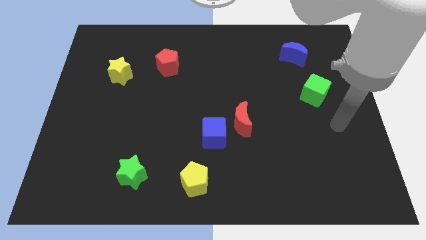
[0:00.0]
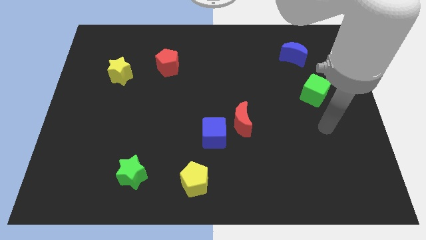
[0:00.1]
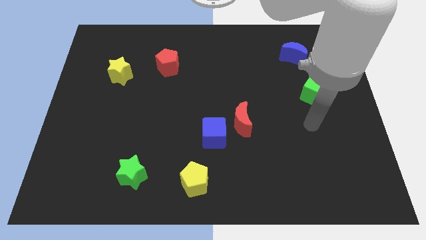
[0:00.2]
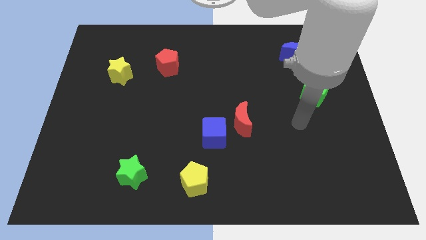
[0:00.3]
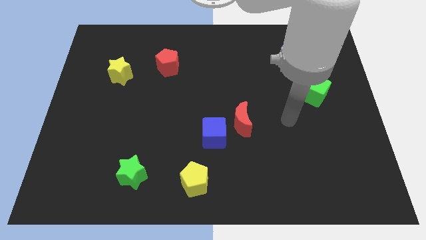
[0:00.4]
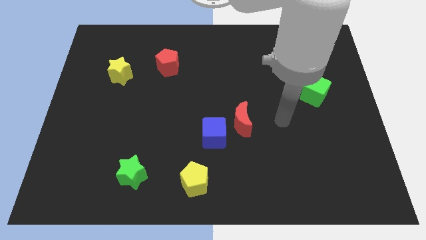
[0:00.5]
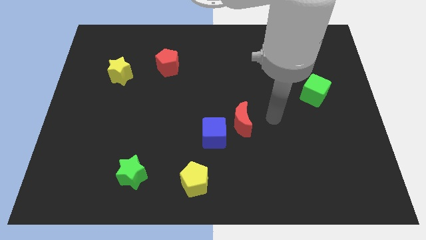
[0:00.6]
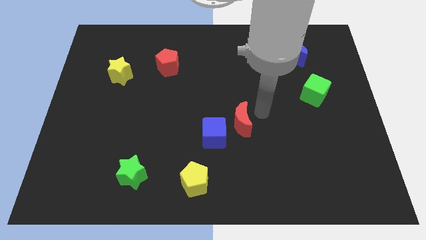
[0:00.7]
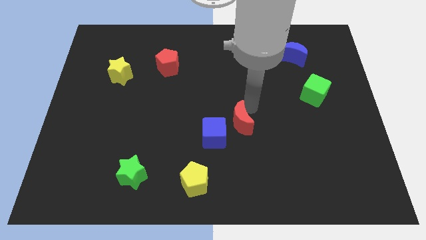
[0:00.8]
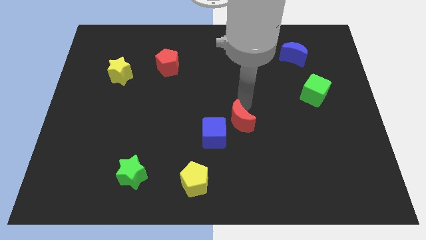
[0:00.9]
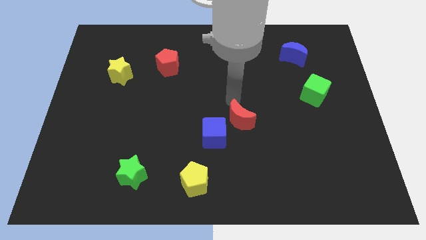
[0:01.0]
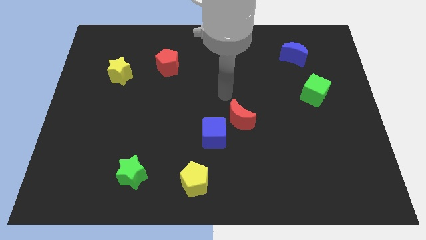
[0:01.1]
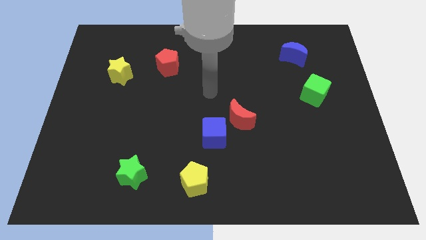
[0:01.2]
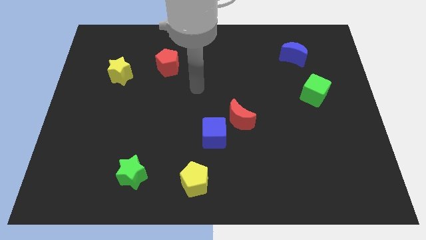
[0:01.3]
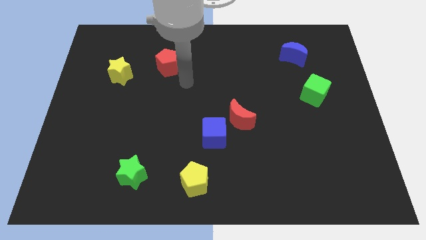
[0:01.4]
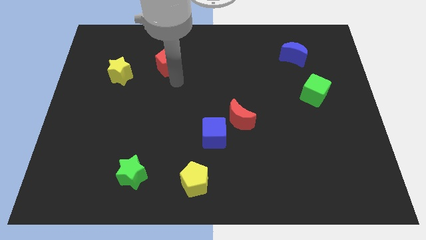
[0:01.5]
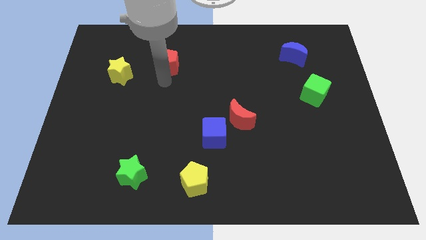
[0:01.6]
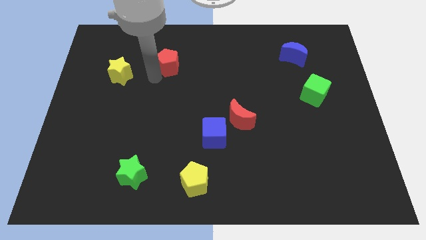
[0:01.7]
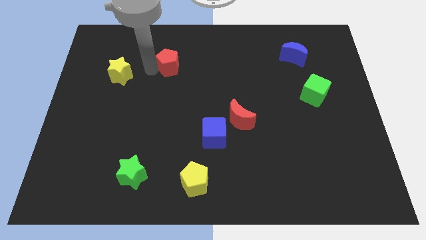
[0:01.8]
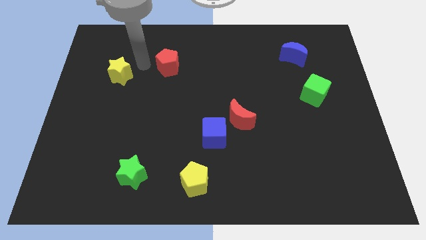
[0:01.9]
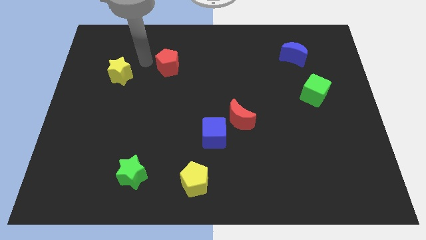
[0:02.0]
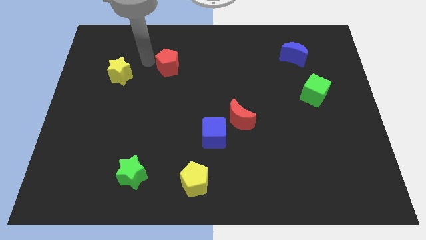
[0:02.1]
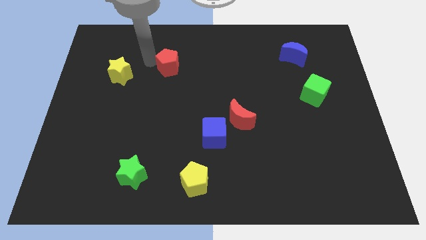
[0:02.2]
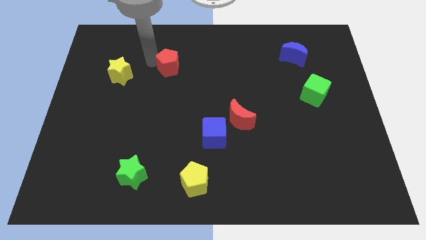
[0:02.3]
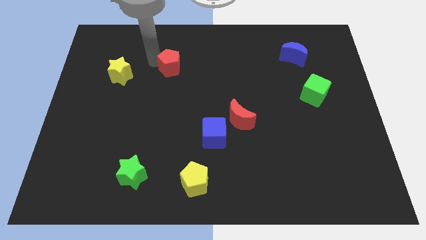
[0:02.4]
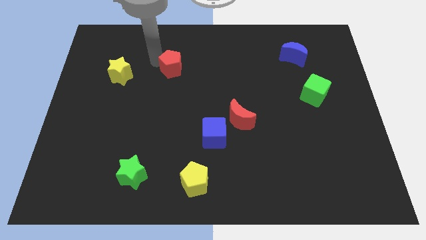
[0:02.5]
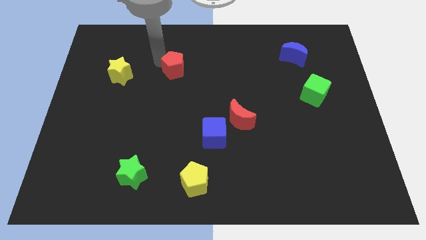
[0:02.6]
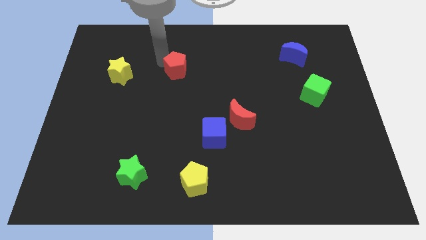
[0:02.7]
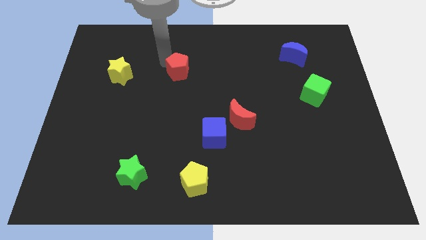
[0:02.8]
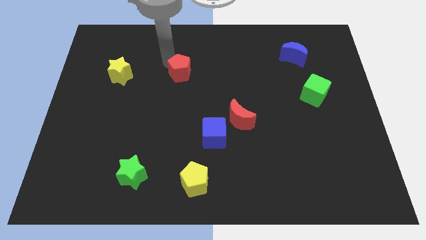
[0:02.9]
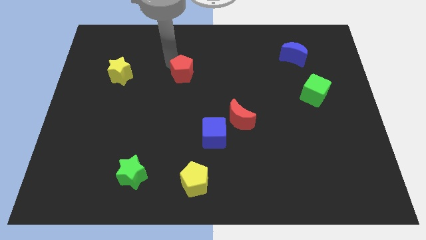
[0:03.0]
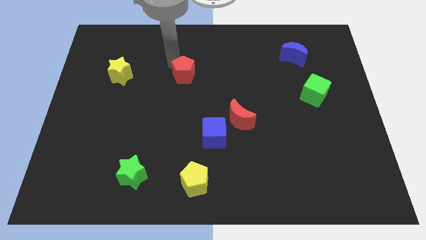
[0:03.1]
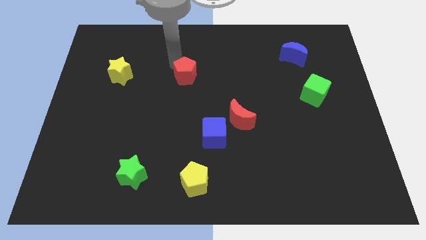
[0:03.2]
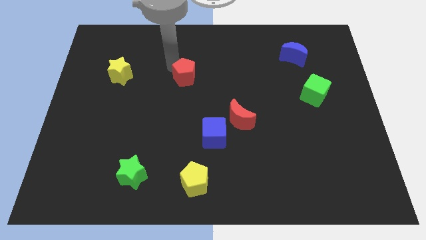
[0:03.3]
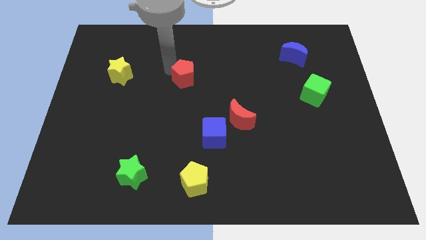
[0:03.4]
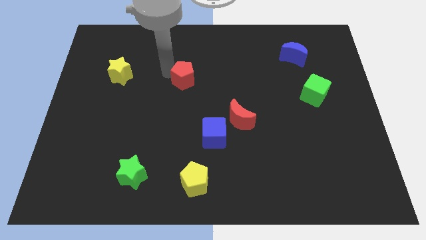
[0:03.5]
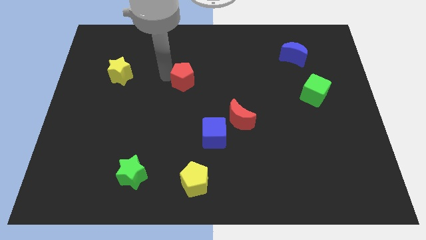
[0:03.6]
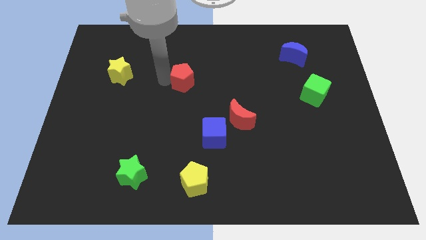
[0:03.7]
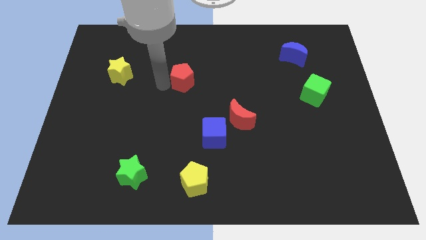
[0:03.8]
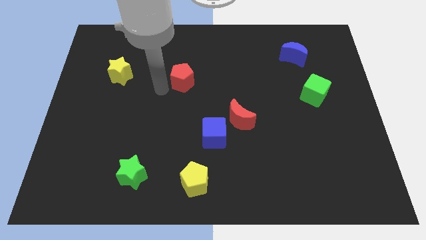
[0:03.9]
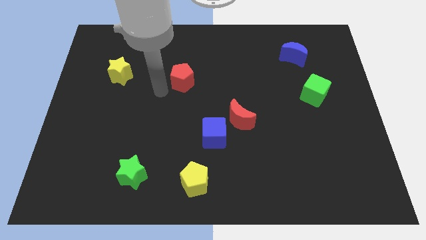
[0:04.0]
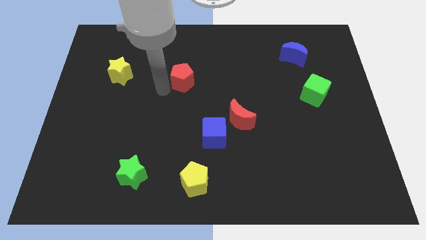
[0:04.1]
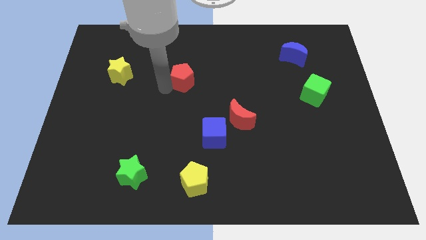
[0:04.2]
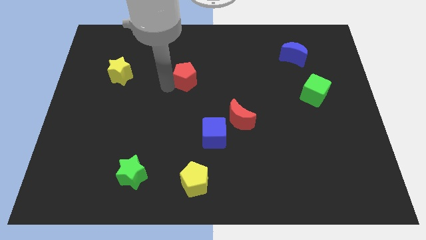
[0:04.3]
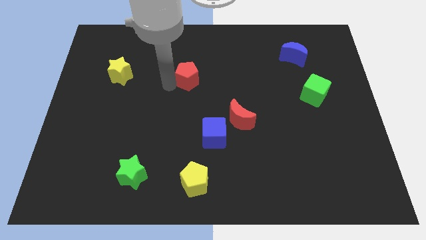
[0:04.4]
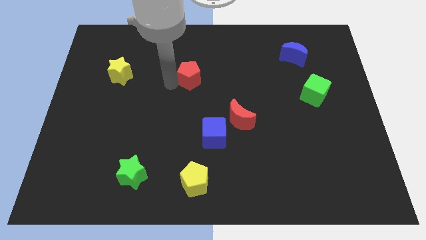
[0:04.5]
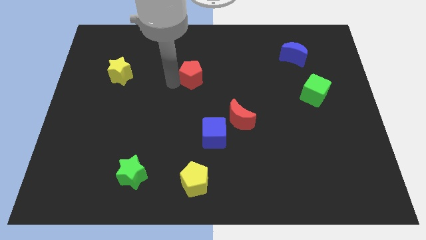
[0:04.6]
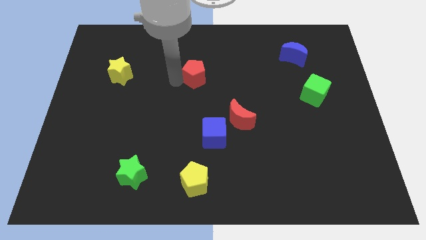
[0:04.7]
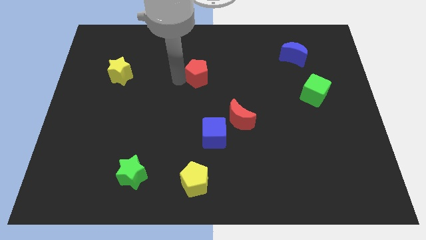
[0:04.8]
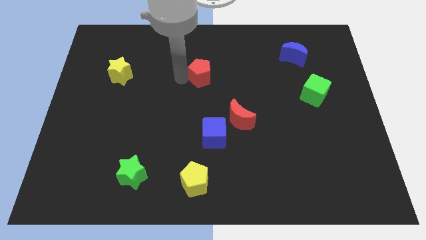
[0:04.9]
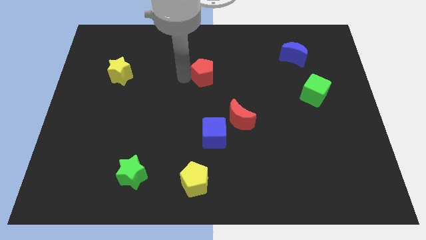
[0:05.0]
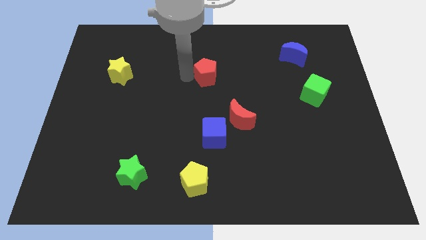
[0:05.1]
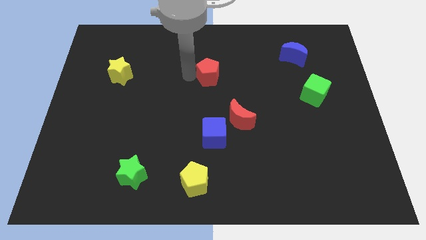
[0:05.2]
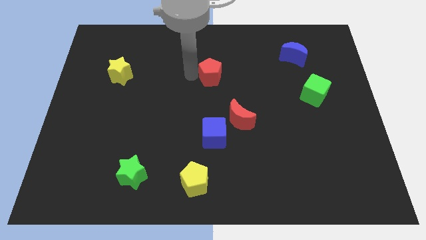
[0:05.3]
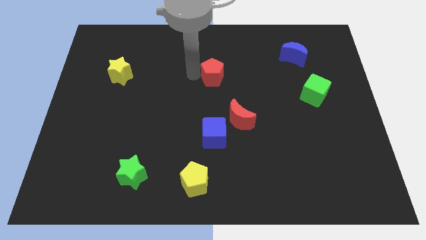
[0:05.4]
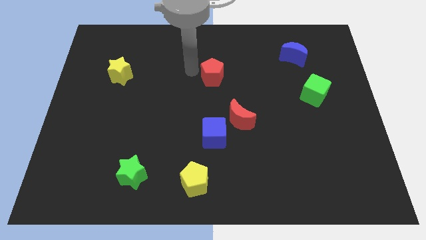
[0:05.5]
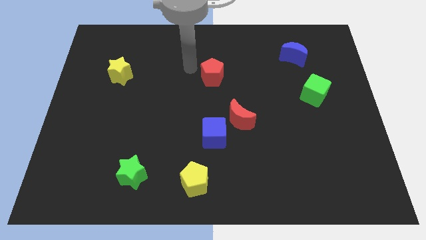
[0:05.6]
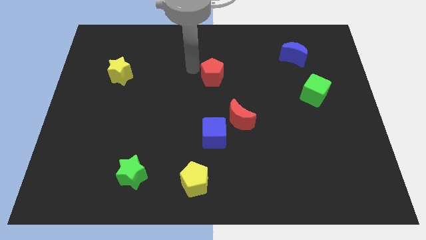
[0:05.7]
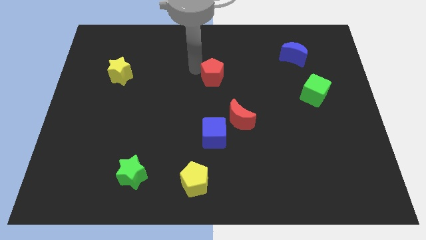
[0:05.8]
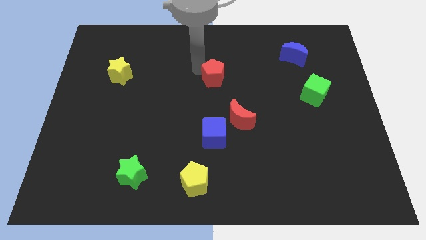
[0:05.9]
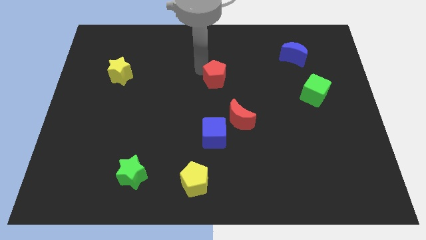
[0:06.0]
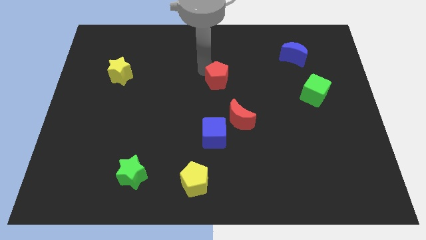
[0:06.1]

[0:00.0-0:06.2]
slide the red pentagon to the top side of the red moon

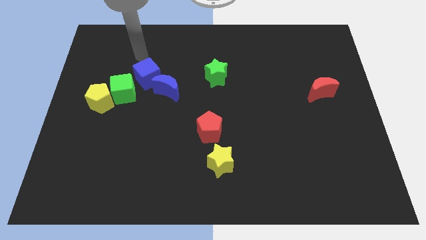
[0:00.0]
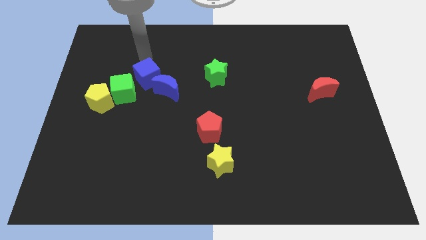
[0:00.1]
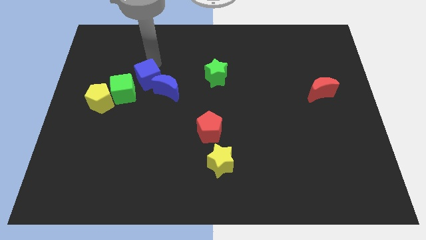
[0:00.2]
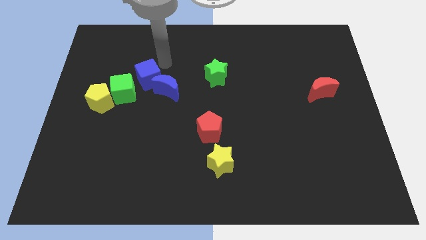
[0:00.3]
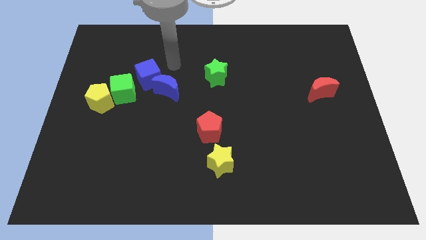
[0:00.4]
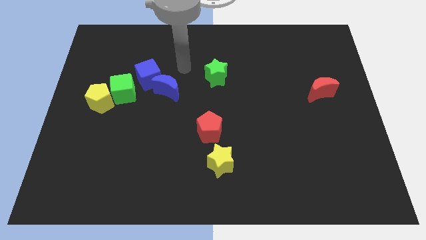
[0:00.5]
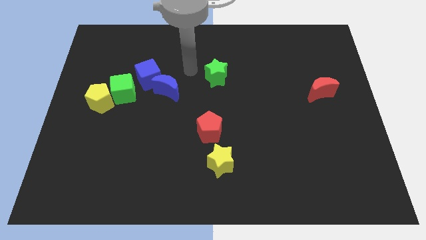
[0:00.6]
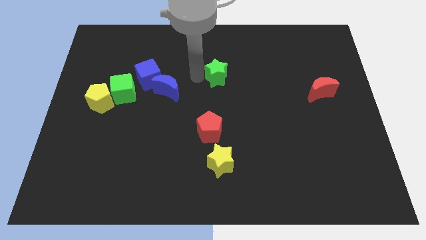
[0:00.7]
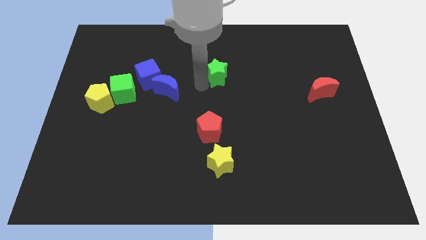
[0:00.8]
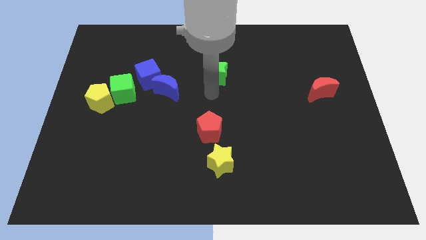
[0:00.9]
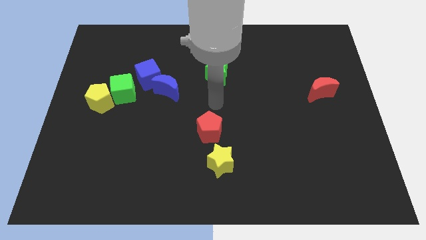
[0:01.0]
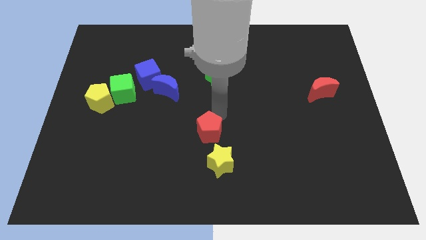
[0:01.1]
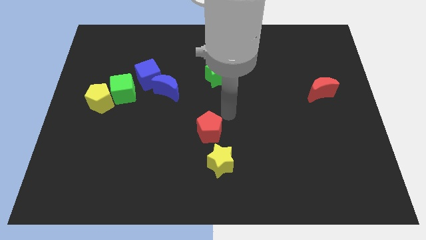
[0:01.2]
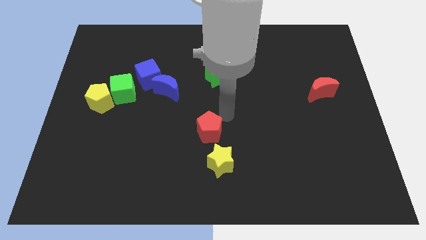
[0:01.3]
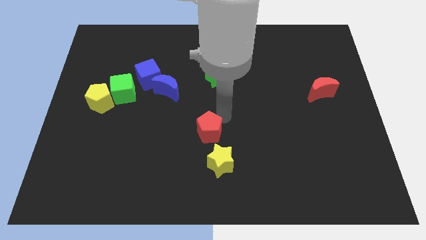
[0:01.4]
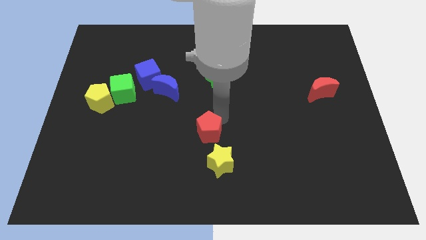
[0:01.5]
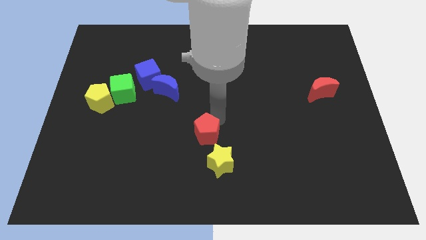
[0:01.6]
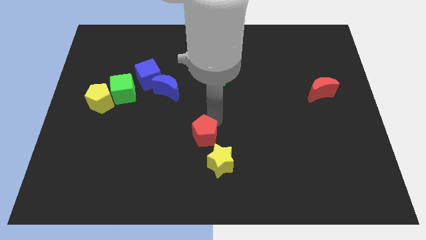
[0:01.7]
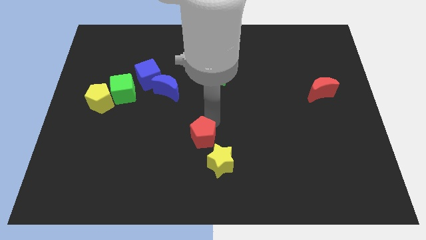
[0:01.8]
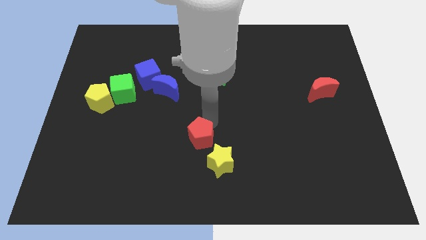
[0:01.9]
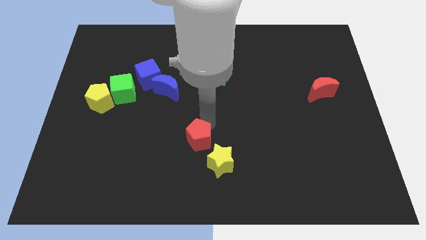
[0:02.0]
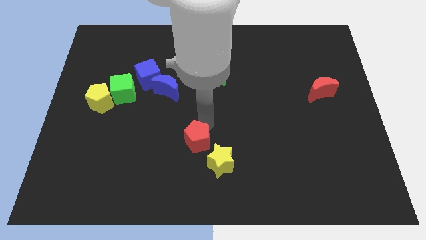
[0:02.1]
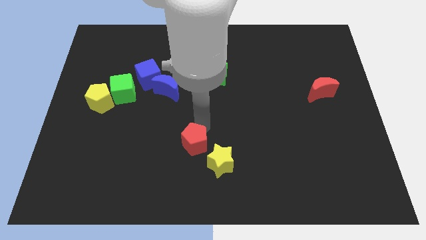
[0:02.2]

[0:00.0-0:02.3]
move the red pentagon just left of the yellow star
